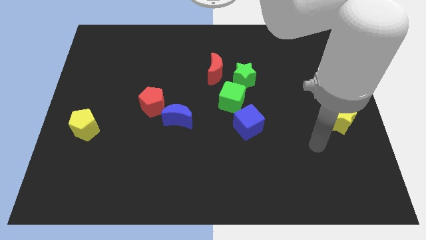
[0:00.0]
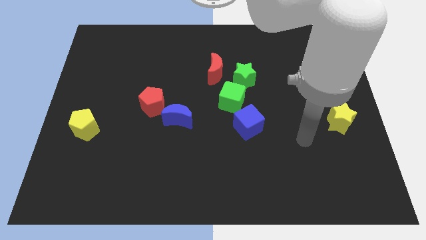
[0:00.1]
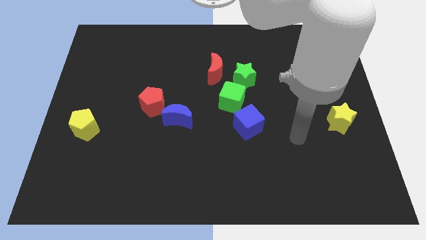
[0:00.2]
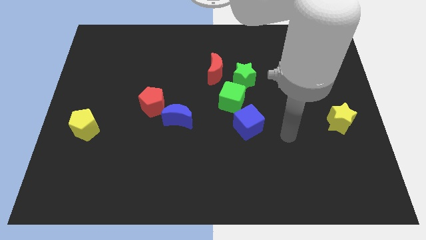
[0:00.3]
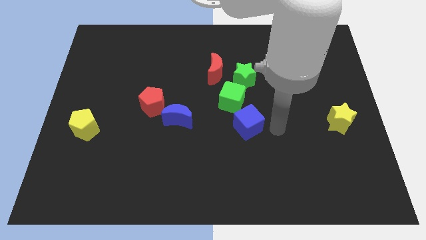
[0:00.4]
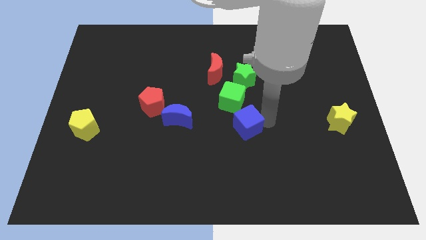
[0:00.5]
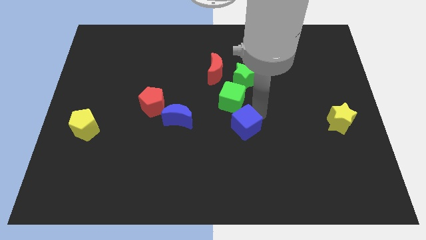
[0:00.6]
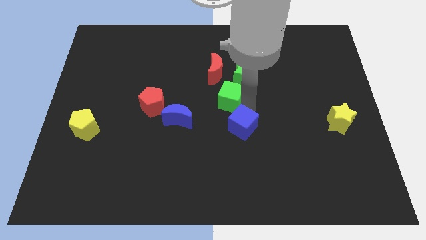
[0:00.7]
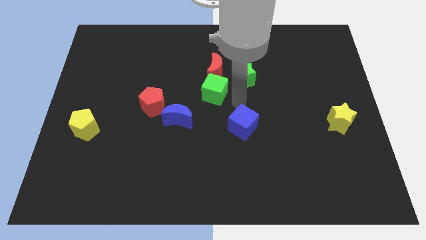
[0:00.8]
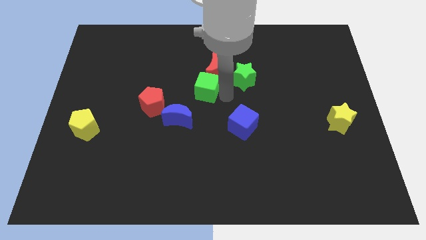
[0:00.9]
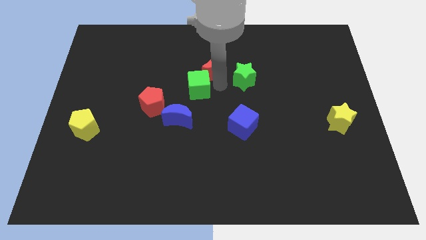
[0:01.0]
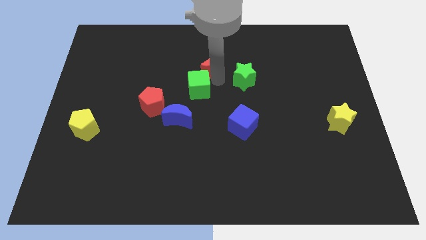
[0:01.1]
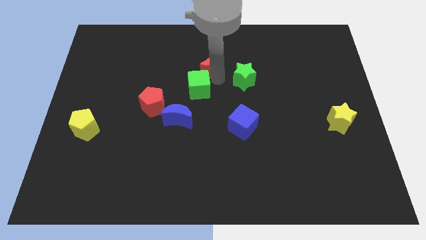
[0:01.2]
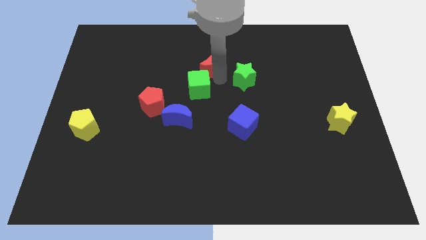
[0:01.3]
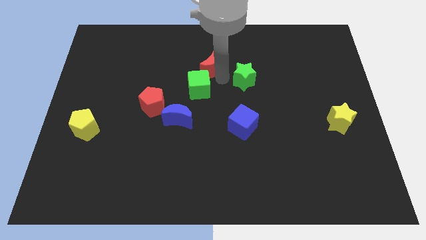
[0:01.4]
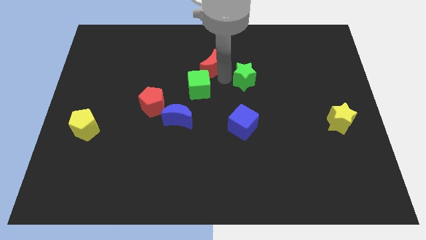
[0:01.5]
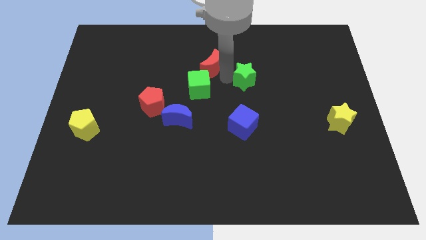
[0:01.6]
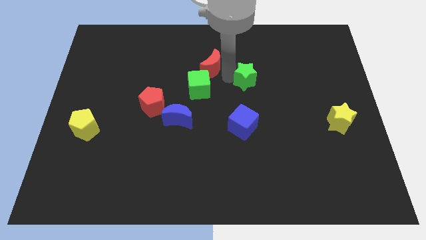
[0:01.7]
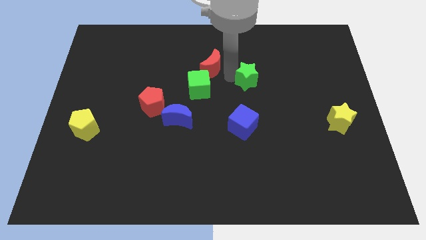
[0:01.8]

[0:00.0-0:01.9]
separate the green star from the red moon and green cube

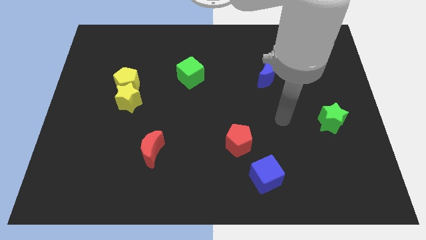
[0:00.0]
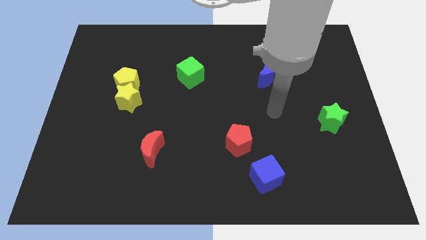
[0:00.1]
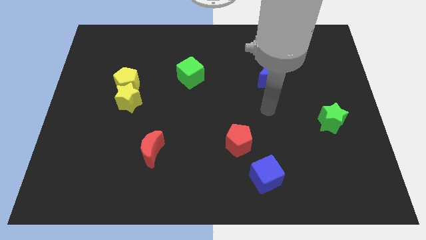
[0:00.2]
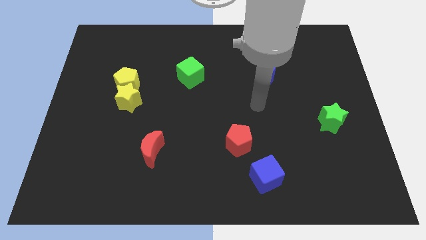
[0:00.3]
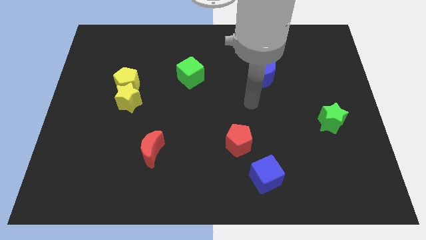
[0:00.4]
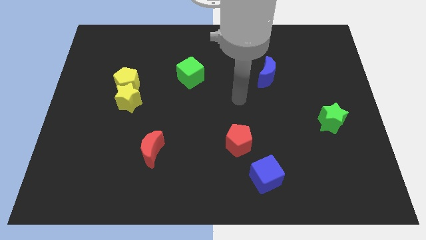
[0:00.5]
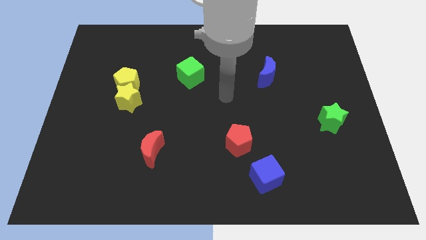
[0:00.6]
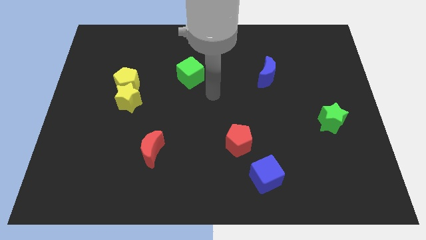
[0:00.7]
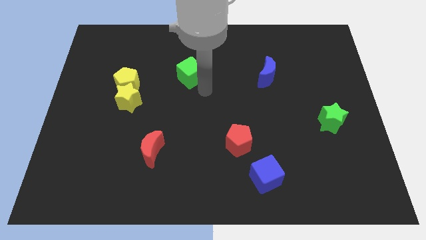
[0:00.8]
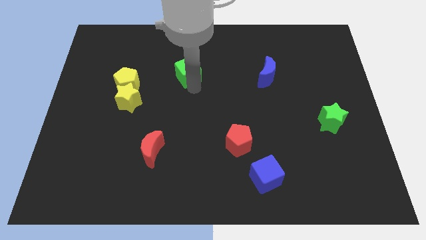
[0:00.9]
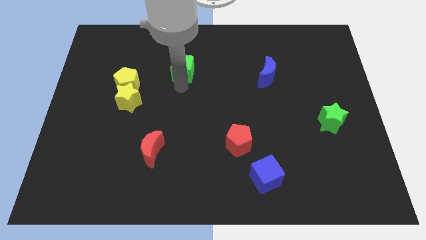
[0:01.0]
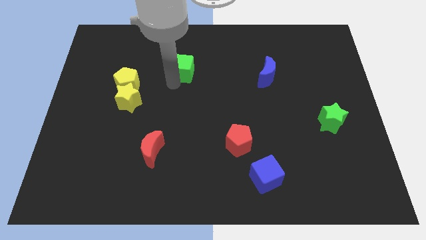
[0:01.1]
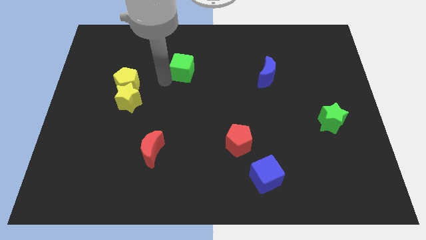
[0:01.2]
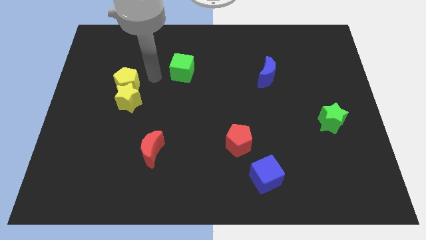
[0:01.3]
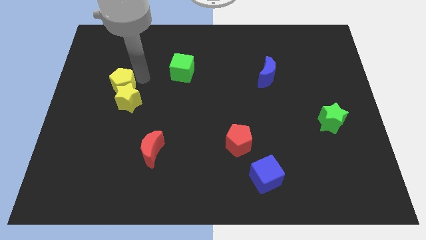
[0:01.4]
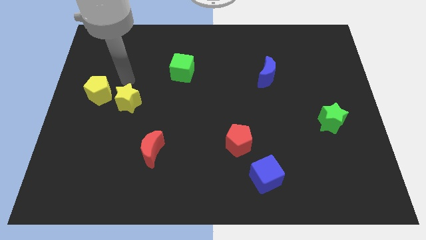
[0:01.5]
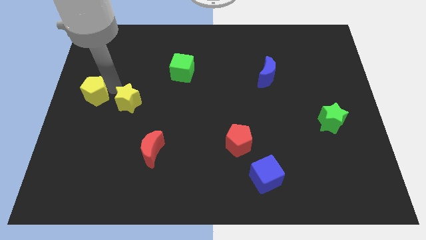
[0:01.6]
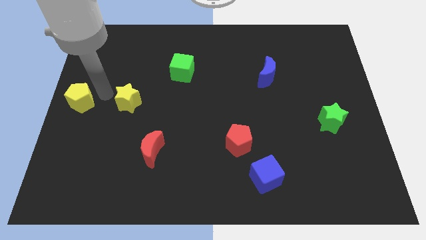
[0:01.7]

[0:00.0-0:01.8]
move the yellow star away from the yellow pentagon

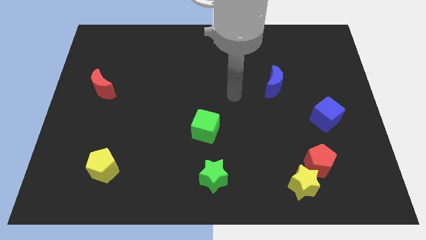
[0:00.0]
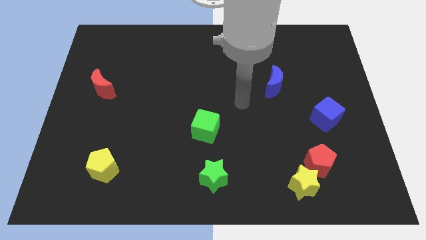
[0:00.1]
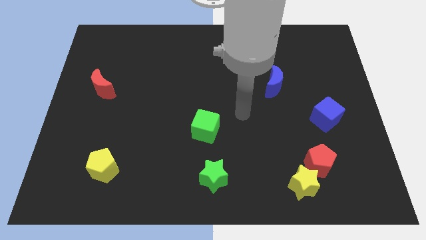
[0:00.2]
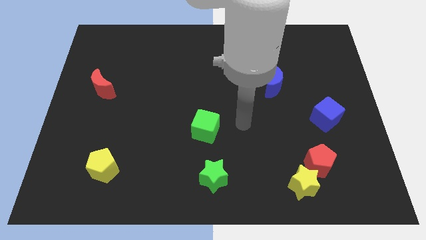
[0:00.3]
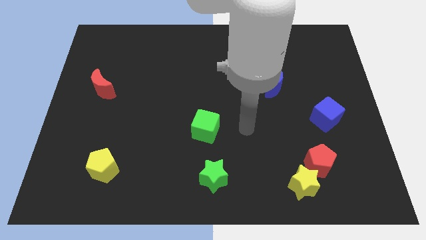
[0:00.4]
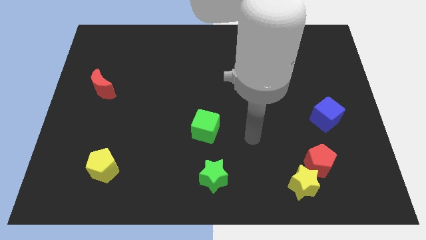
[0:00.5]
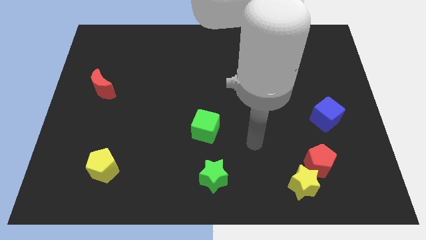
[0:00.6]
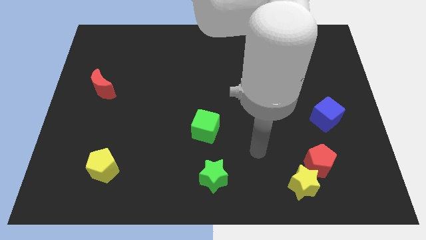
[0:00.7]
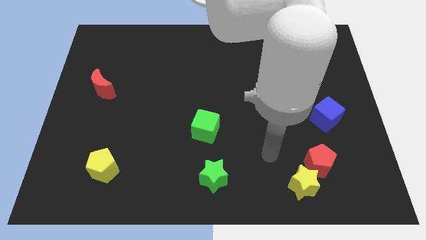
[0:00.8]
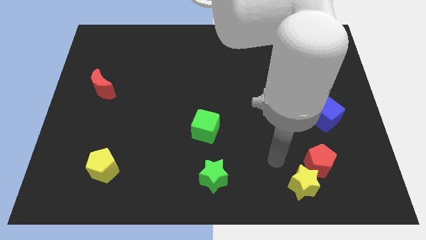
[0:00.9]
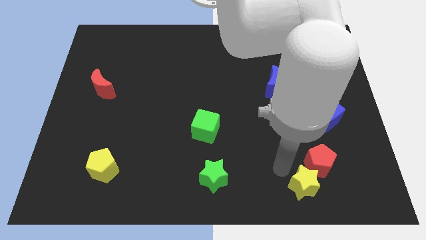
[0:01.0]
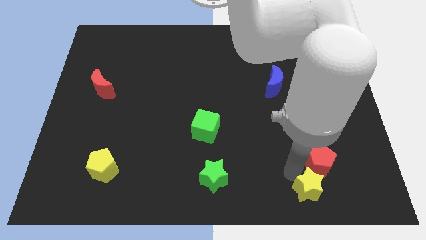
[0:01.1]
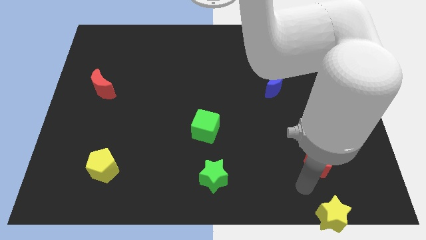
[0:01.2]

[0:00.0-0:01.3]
pull the red pentagon apart from the yellow star

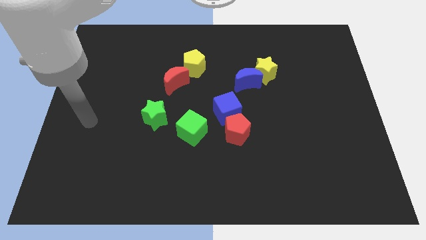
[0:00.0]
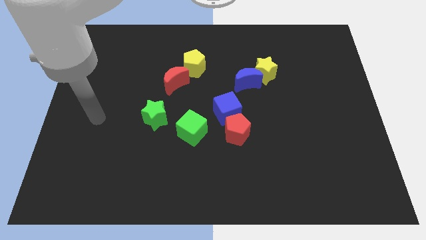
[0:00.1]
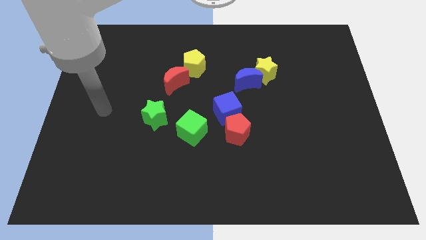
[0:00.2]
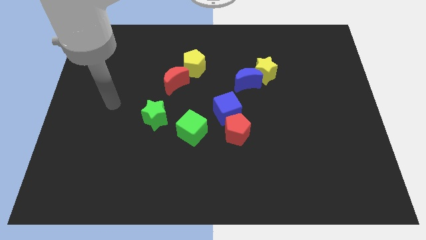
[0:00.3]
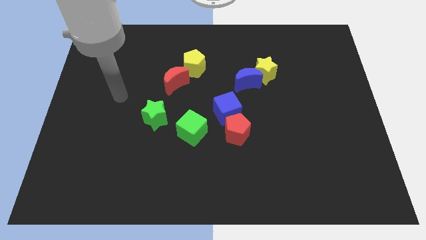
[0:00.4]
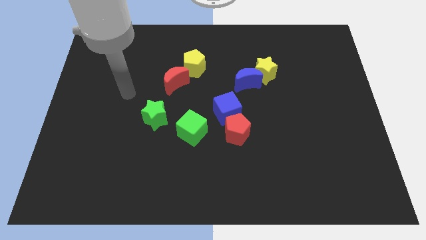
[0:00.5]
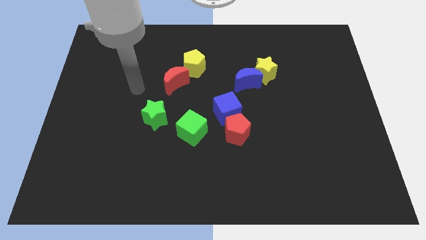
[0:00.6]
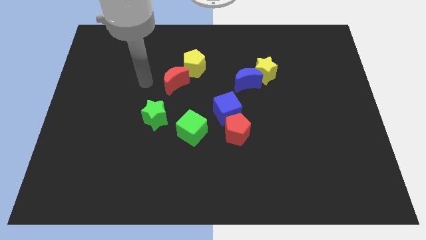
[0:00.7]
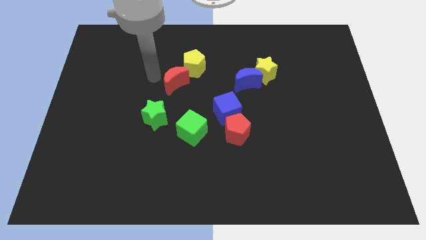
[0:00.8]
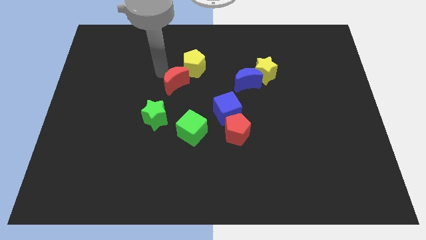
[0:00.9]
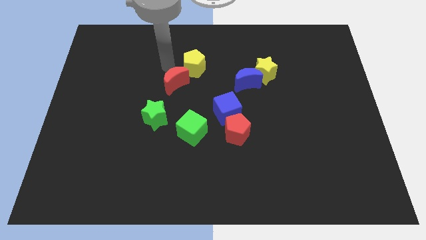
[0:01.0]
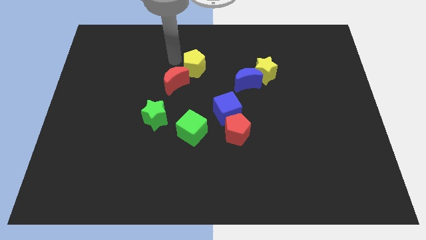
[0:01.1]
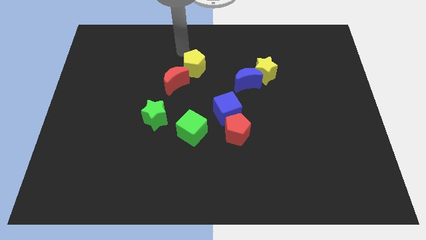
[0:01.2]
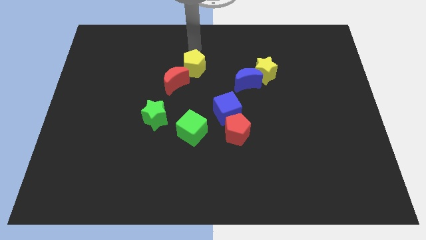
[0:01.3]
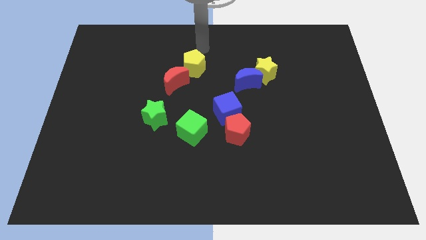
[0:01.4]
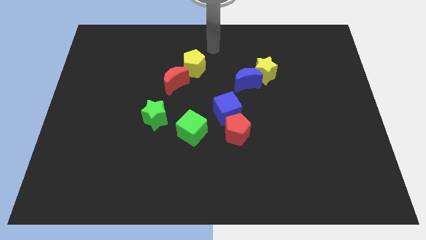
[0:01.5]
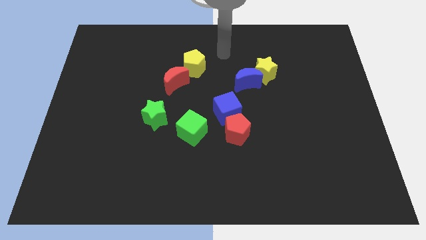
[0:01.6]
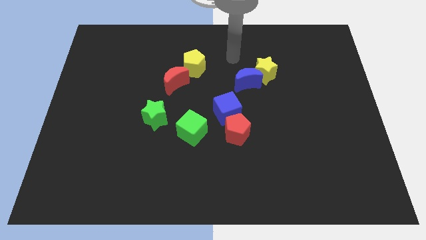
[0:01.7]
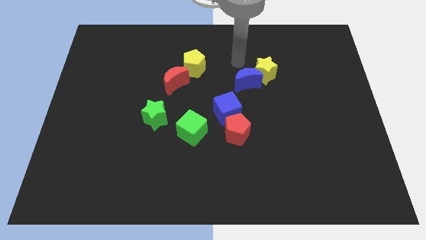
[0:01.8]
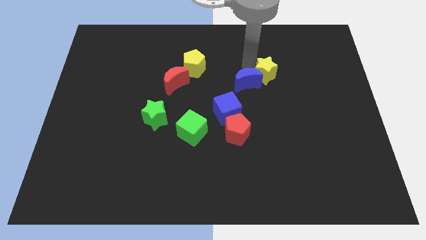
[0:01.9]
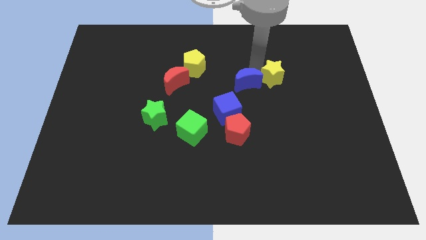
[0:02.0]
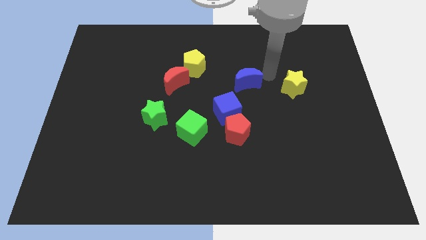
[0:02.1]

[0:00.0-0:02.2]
separate the blue moon from the yellow star

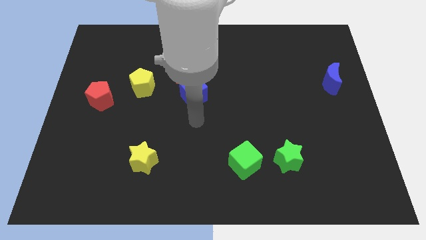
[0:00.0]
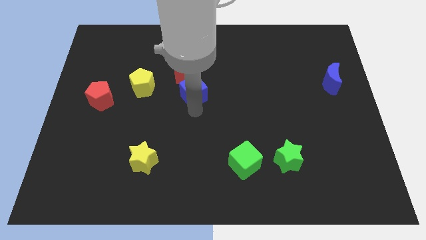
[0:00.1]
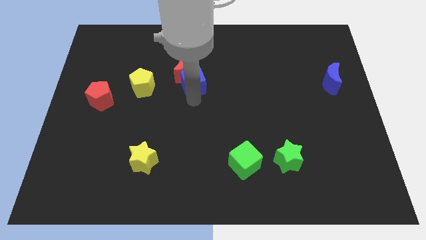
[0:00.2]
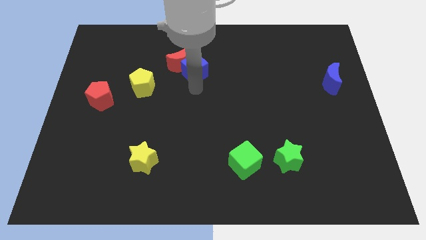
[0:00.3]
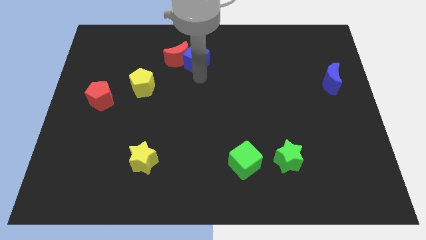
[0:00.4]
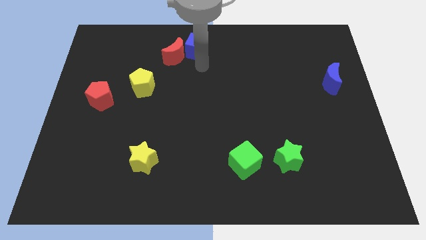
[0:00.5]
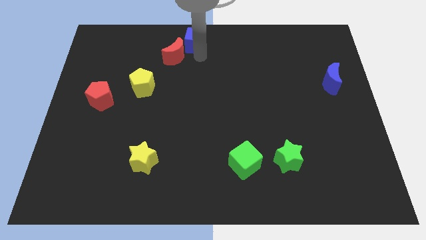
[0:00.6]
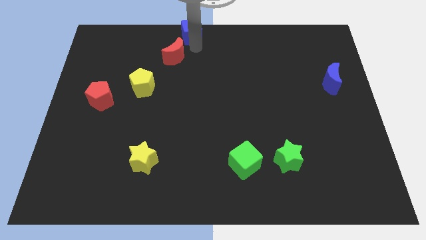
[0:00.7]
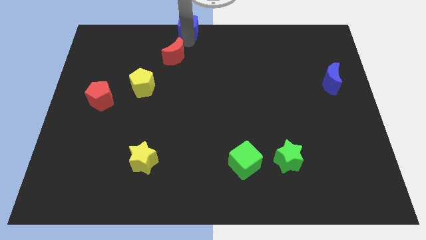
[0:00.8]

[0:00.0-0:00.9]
move the red moon away from the blue cube

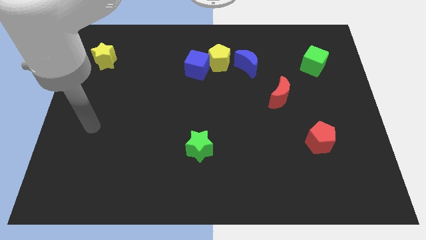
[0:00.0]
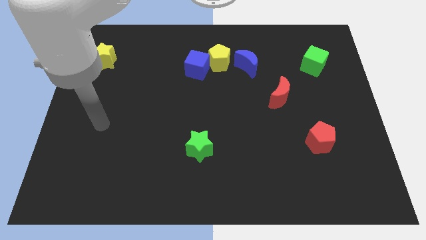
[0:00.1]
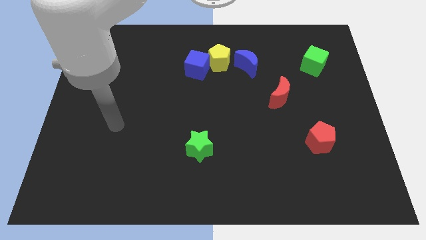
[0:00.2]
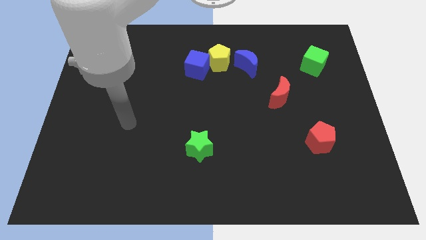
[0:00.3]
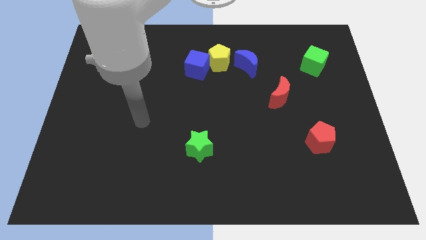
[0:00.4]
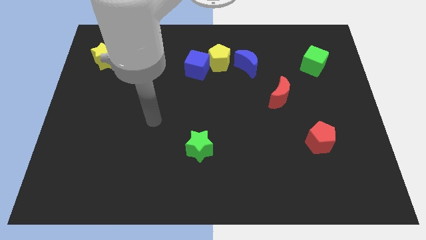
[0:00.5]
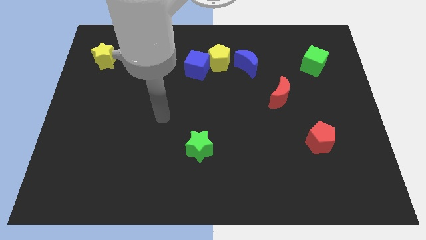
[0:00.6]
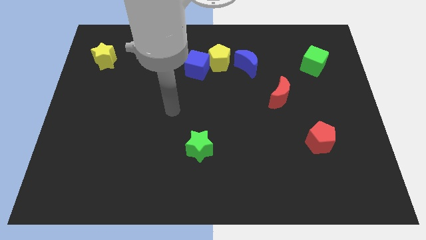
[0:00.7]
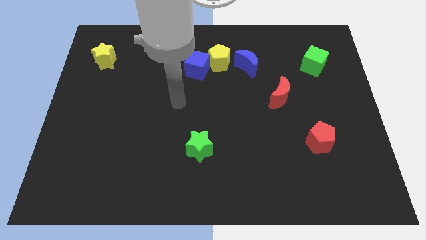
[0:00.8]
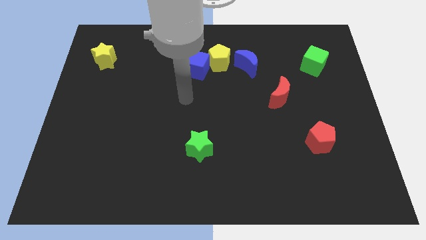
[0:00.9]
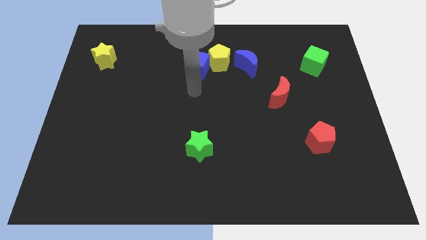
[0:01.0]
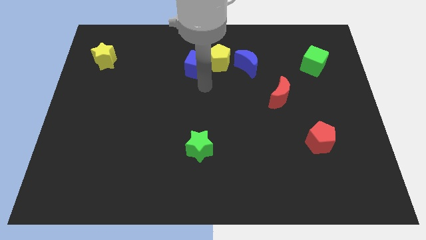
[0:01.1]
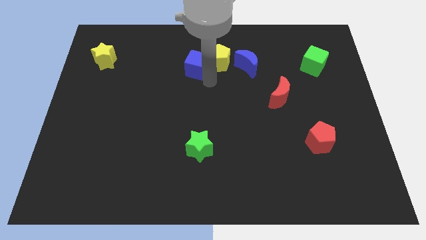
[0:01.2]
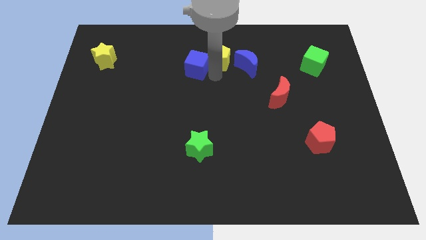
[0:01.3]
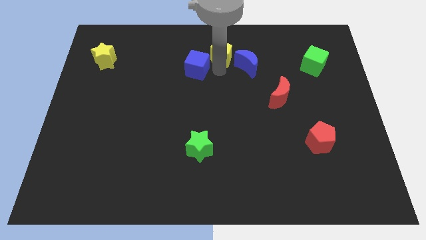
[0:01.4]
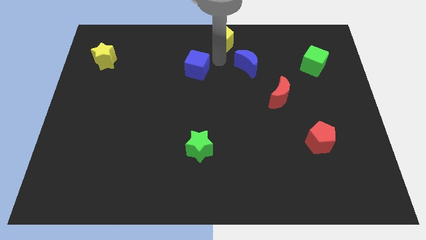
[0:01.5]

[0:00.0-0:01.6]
move the blue cube away from the yellow pentagon
